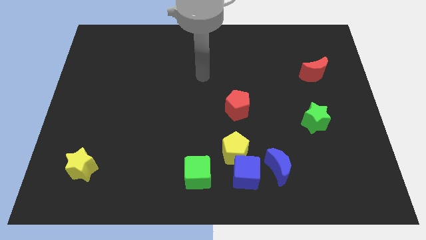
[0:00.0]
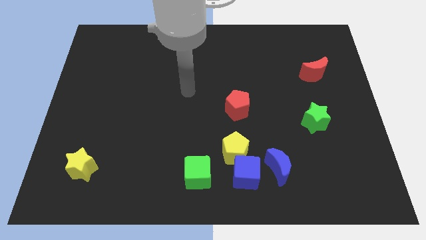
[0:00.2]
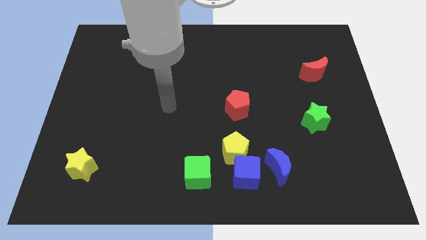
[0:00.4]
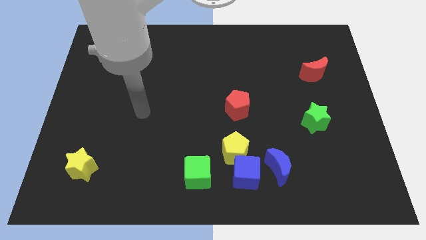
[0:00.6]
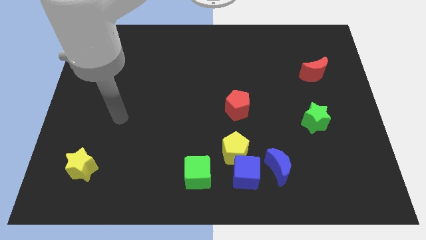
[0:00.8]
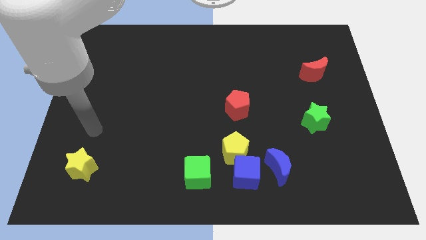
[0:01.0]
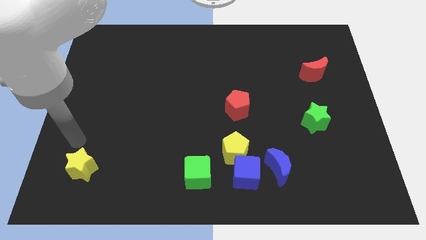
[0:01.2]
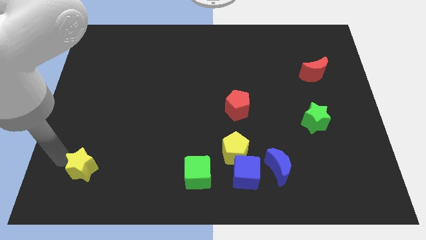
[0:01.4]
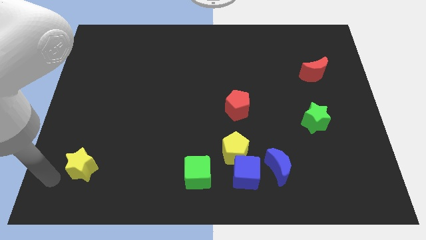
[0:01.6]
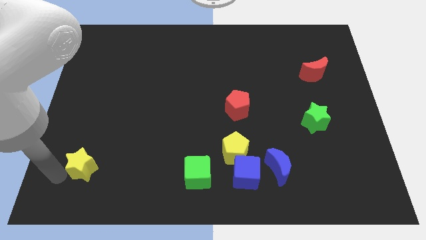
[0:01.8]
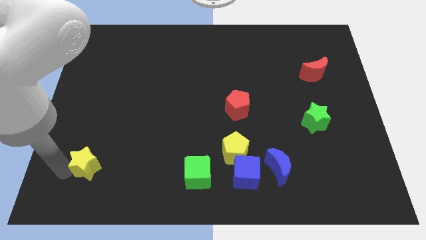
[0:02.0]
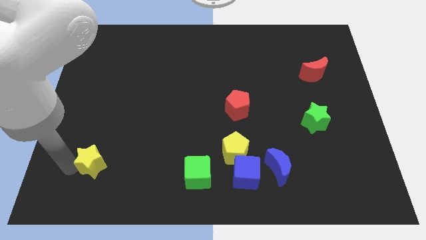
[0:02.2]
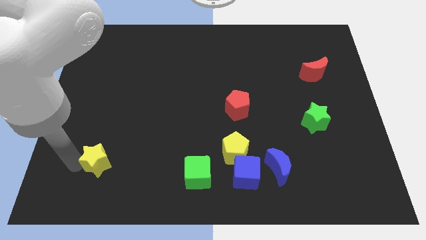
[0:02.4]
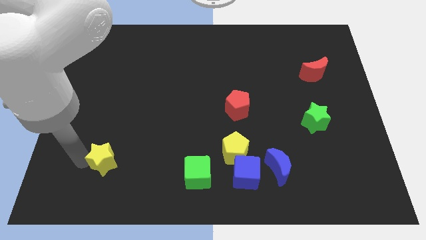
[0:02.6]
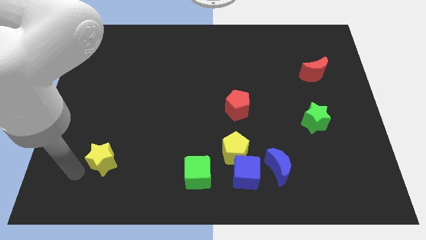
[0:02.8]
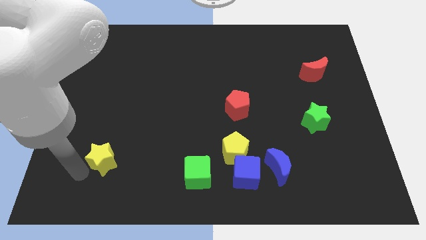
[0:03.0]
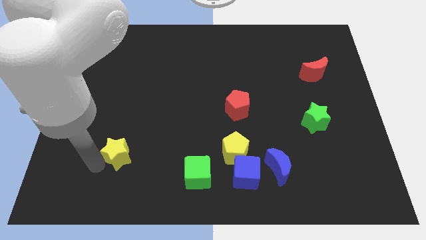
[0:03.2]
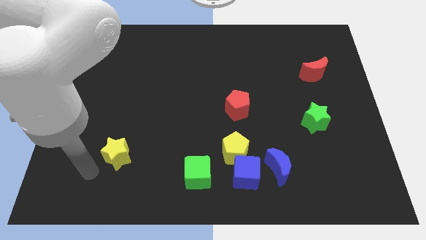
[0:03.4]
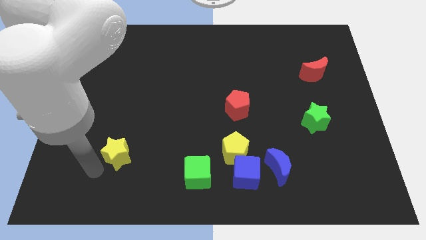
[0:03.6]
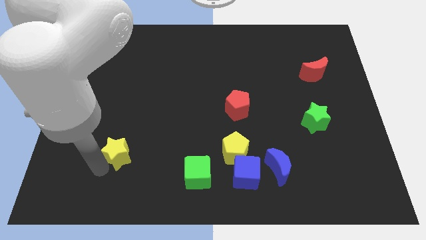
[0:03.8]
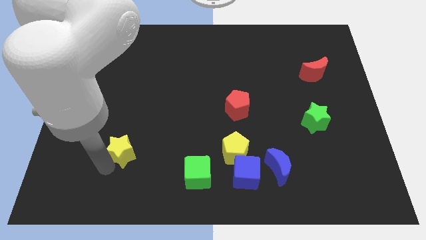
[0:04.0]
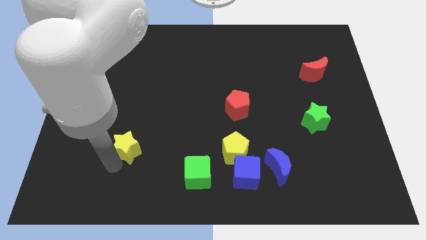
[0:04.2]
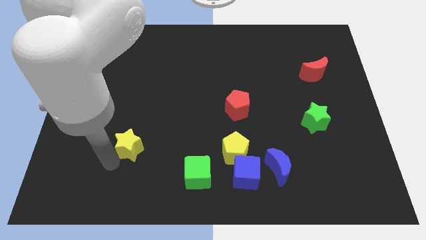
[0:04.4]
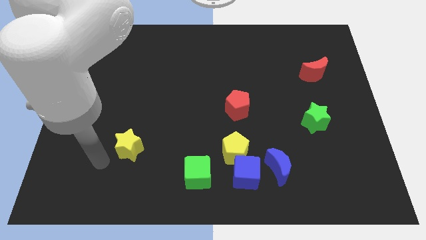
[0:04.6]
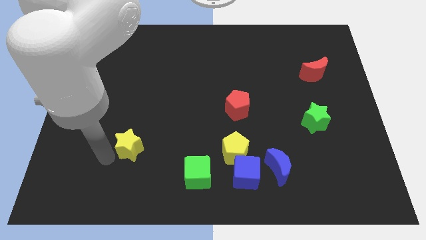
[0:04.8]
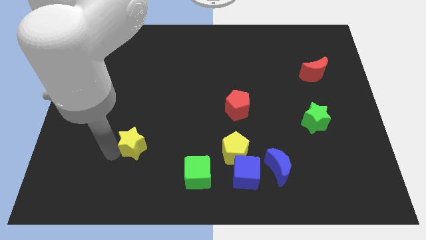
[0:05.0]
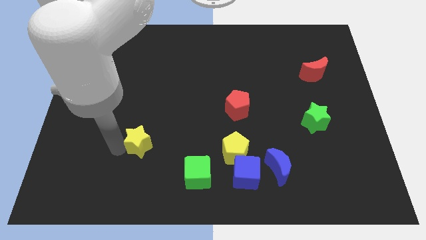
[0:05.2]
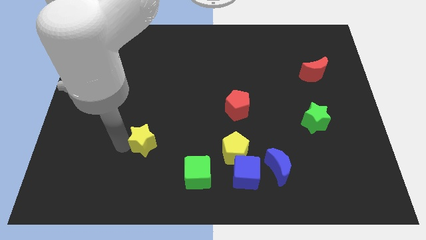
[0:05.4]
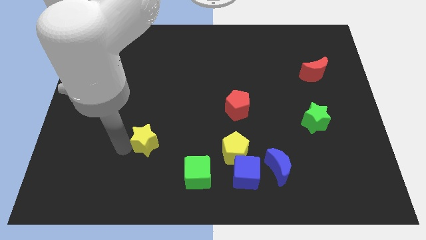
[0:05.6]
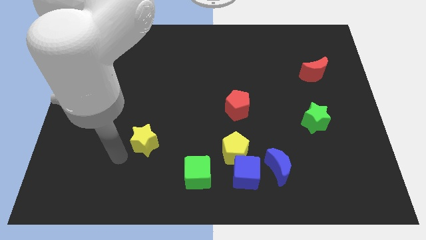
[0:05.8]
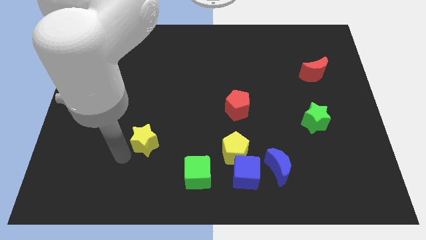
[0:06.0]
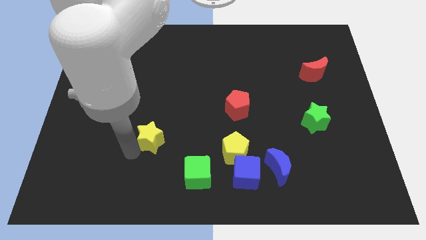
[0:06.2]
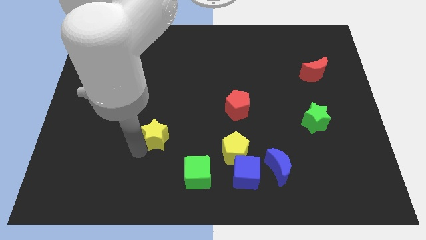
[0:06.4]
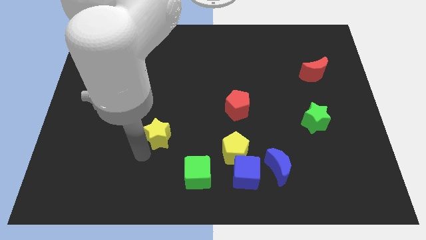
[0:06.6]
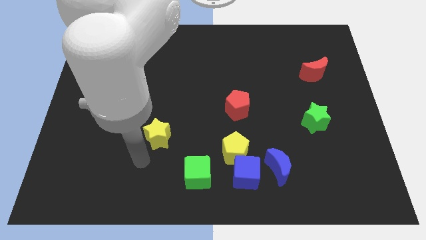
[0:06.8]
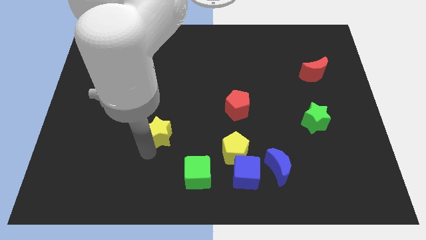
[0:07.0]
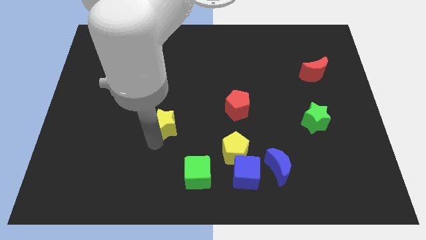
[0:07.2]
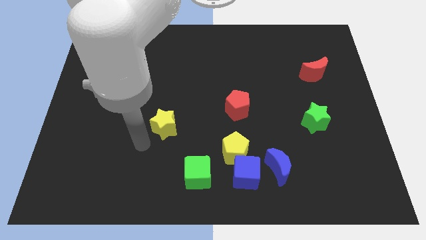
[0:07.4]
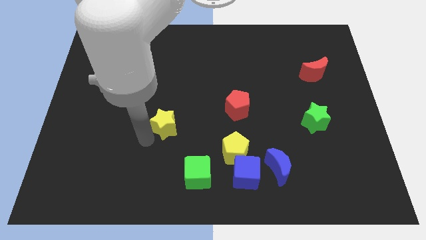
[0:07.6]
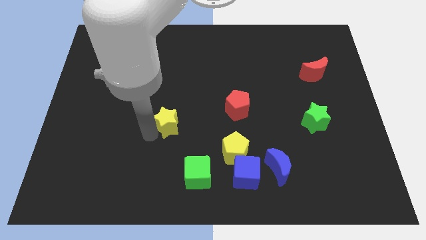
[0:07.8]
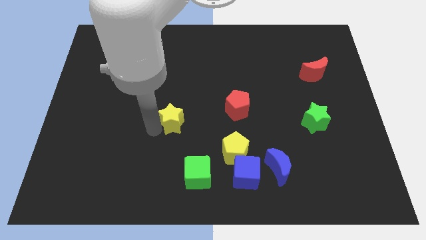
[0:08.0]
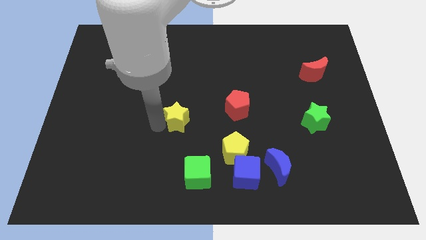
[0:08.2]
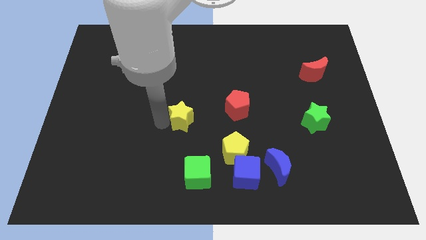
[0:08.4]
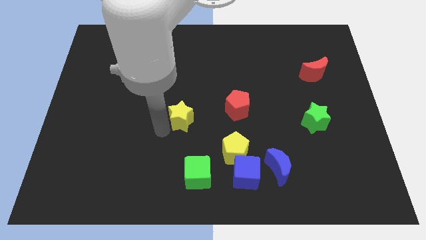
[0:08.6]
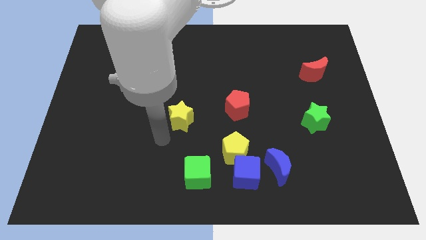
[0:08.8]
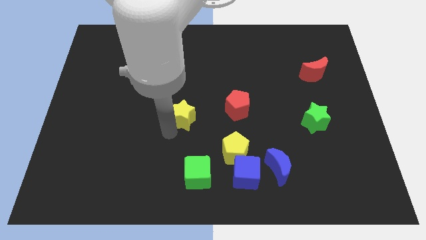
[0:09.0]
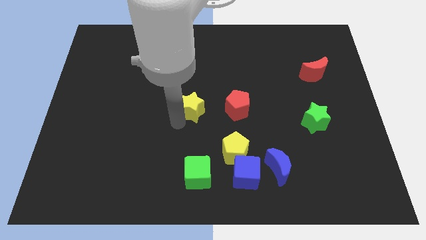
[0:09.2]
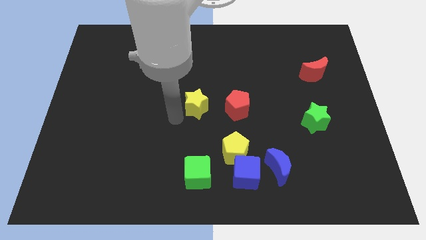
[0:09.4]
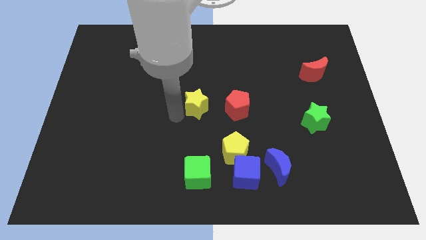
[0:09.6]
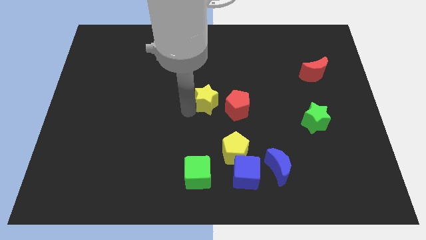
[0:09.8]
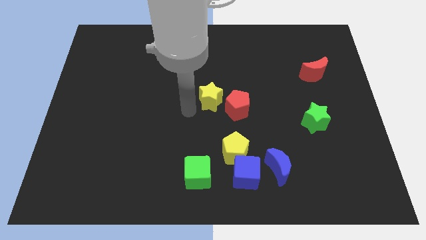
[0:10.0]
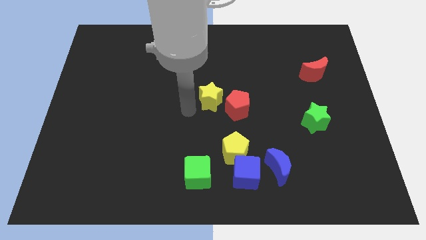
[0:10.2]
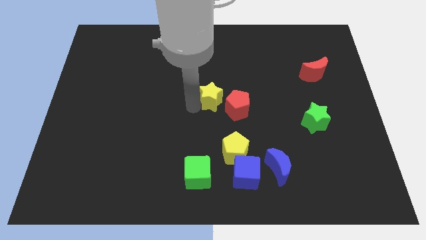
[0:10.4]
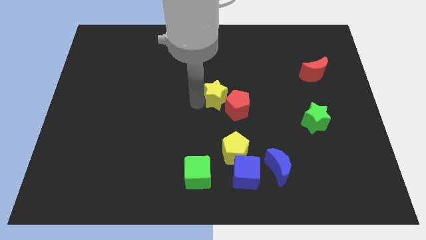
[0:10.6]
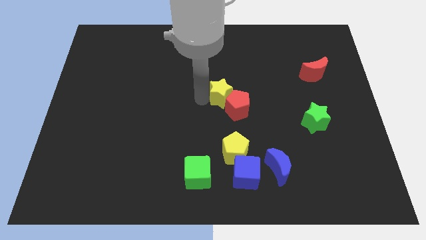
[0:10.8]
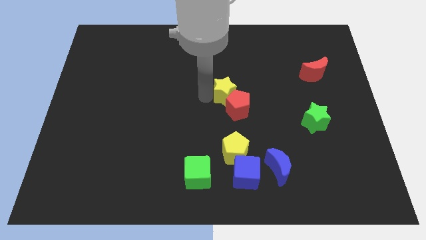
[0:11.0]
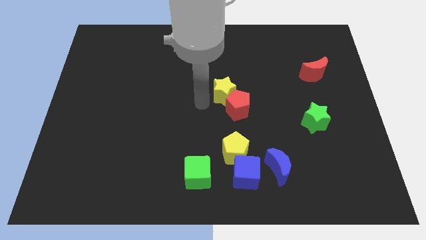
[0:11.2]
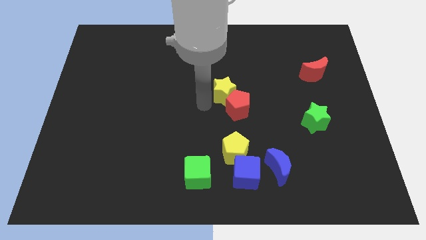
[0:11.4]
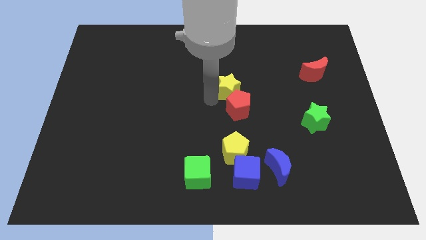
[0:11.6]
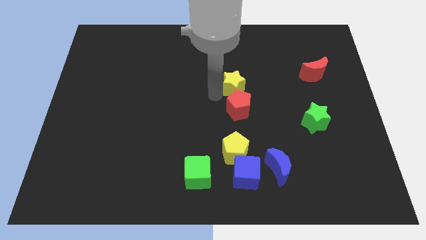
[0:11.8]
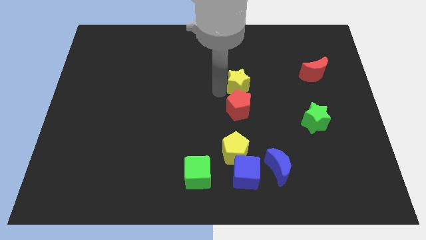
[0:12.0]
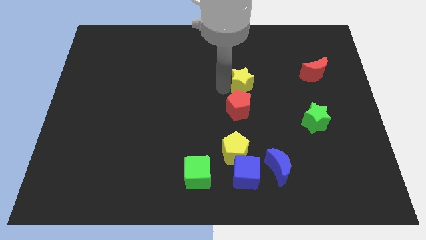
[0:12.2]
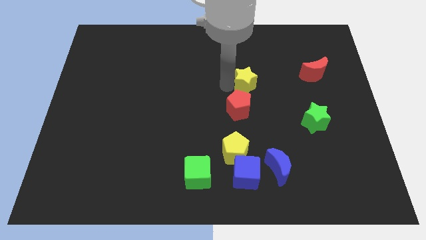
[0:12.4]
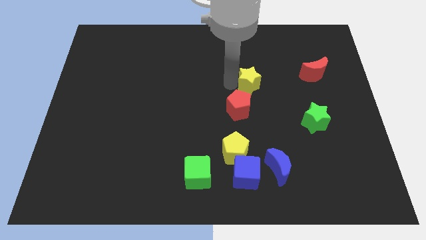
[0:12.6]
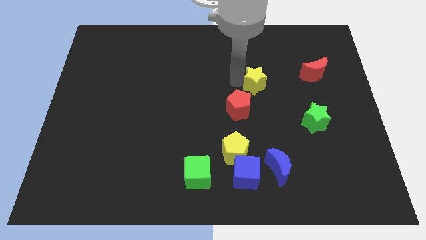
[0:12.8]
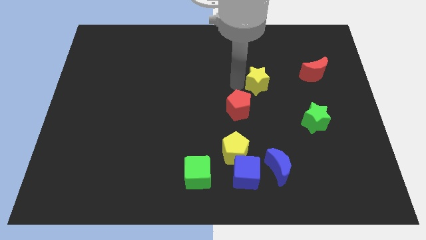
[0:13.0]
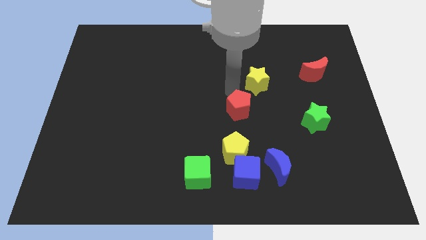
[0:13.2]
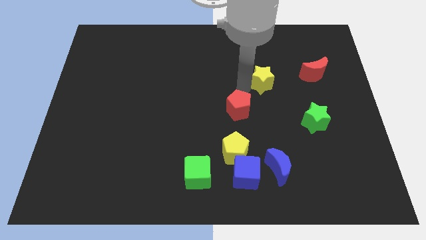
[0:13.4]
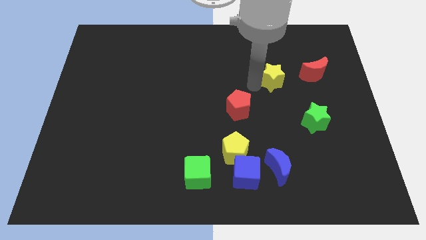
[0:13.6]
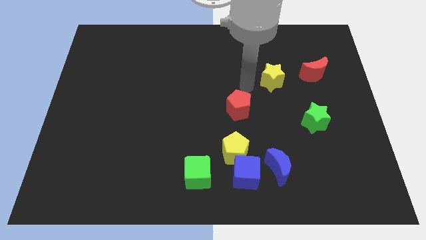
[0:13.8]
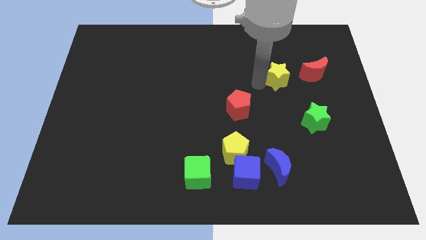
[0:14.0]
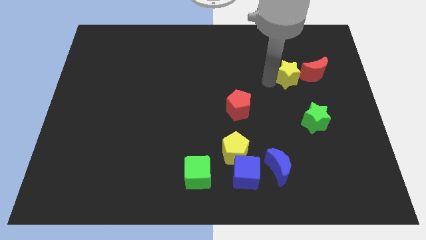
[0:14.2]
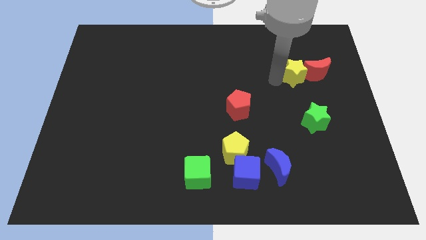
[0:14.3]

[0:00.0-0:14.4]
move the yellow star towards the red moon

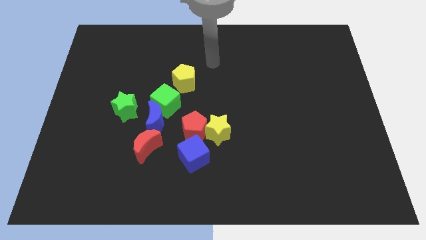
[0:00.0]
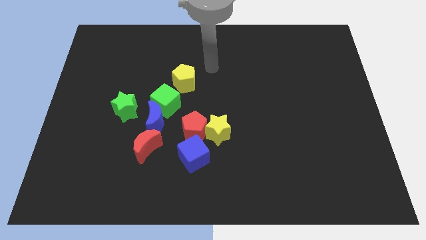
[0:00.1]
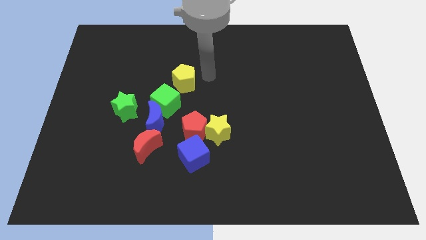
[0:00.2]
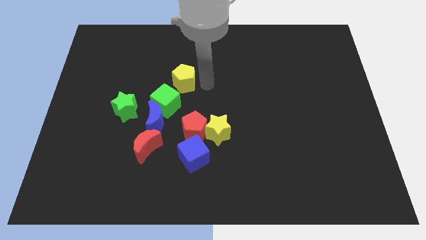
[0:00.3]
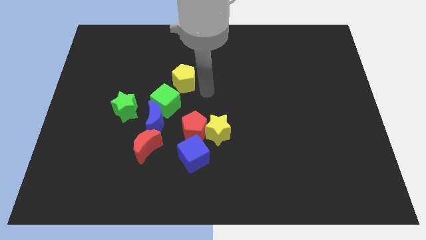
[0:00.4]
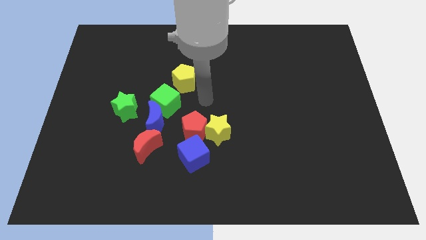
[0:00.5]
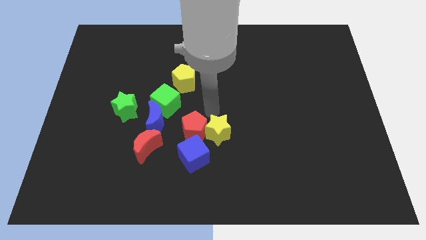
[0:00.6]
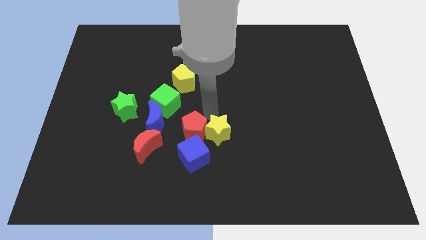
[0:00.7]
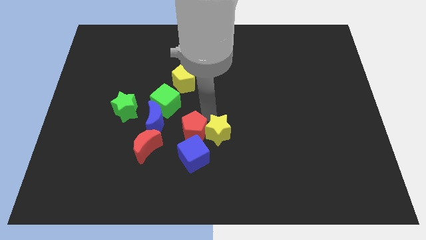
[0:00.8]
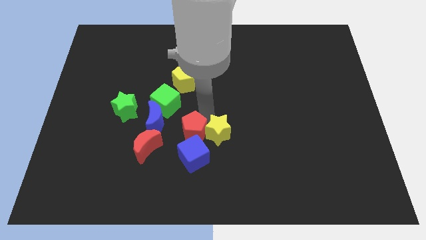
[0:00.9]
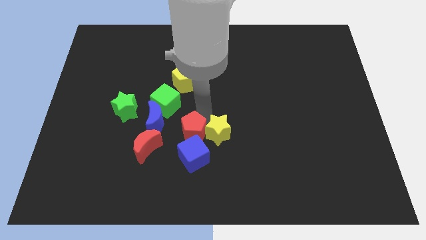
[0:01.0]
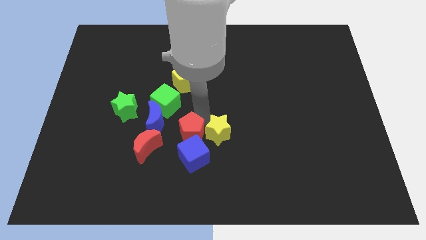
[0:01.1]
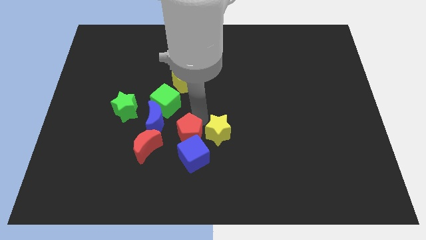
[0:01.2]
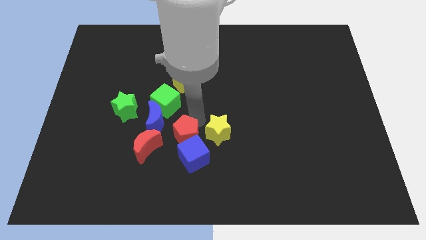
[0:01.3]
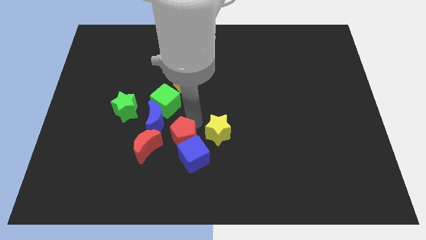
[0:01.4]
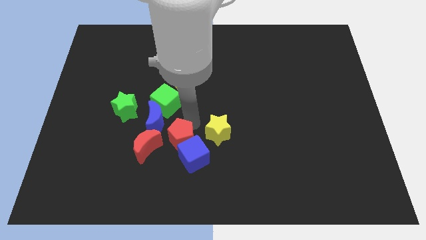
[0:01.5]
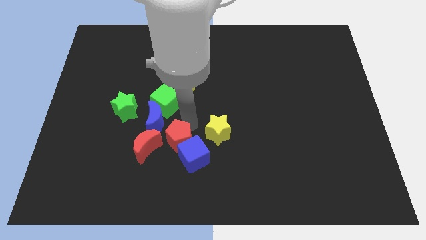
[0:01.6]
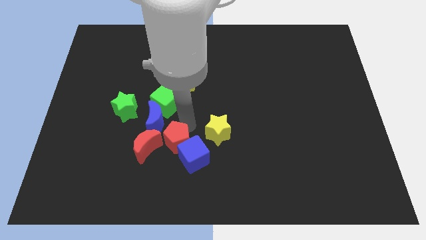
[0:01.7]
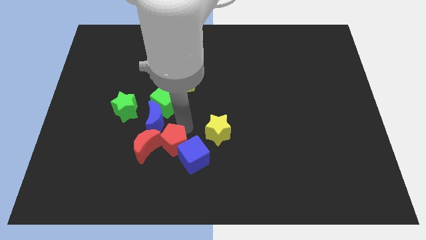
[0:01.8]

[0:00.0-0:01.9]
slide the red pentagon towards the red moon
